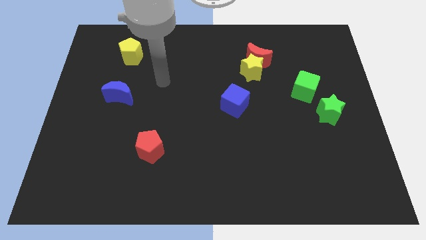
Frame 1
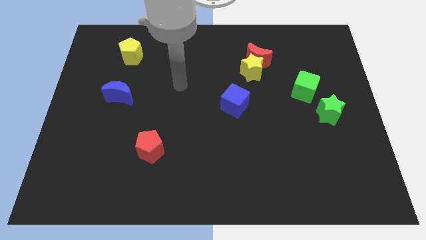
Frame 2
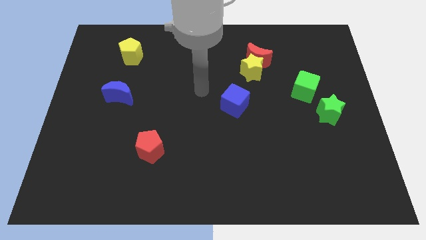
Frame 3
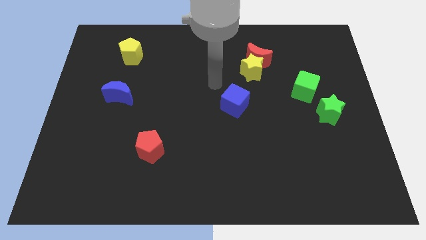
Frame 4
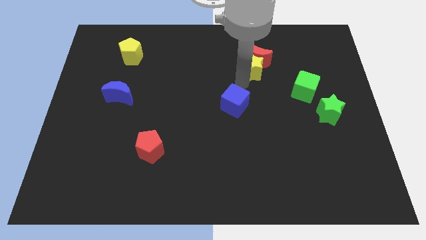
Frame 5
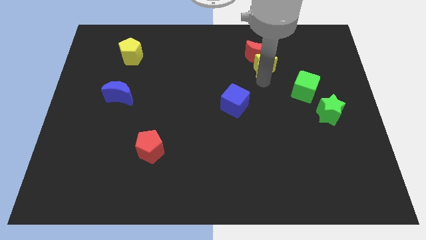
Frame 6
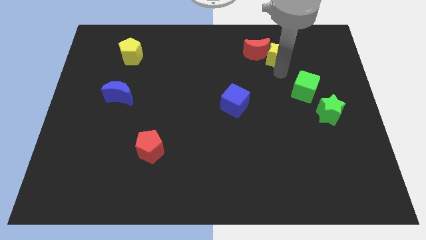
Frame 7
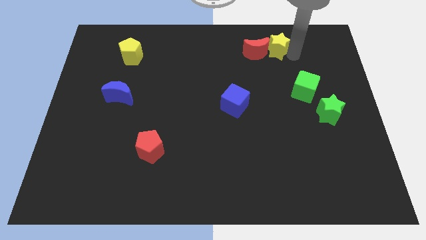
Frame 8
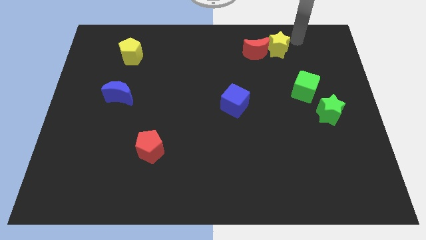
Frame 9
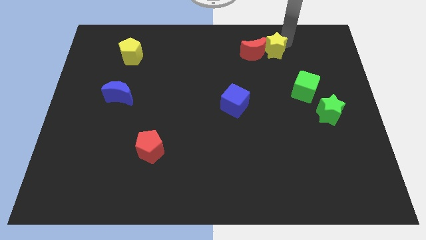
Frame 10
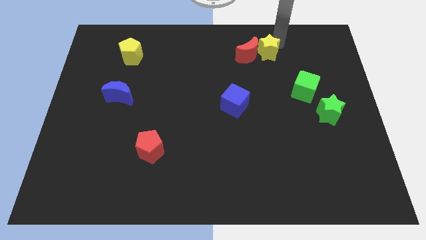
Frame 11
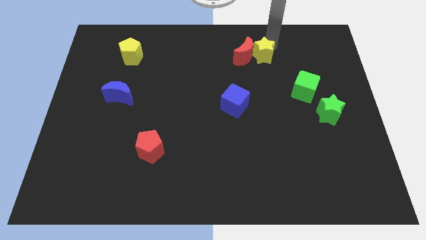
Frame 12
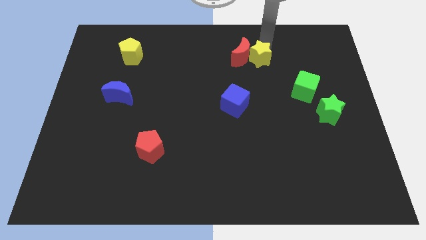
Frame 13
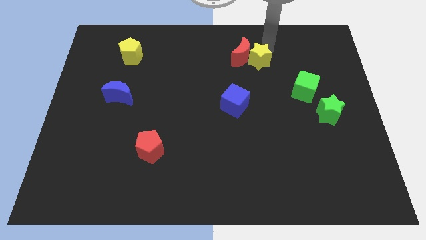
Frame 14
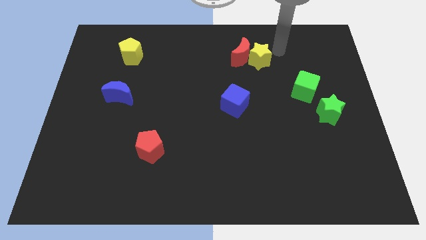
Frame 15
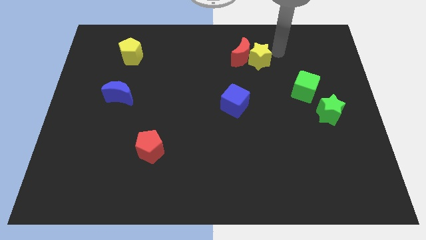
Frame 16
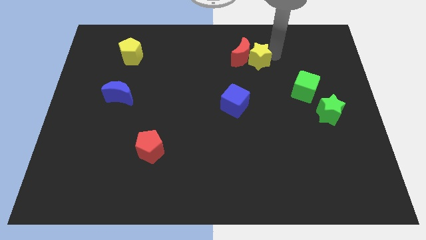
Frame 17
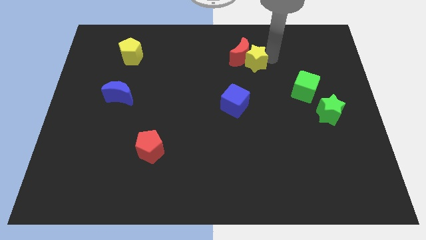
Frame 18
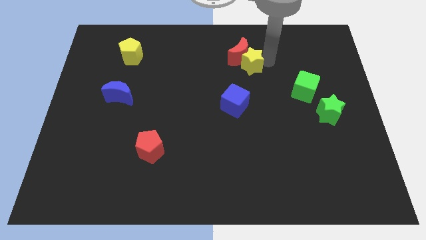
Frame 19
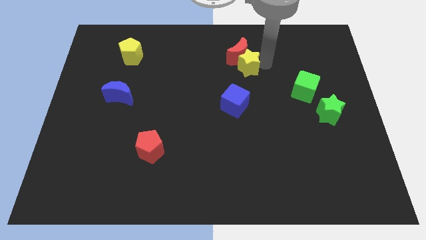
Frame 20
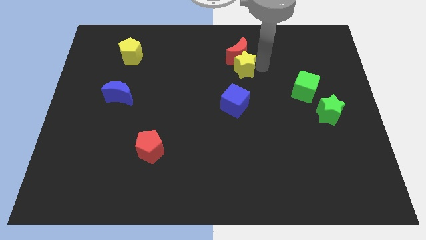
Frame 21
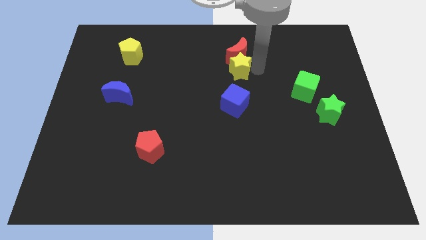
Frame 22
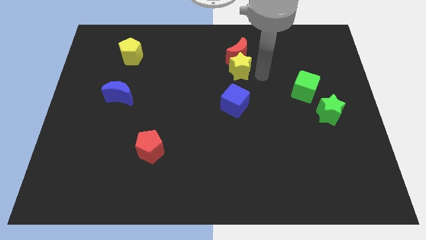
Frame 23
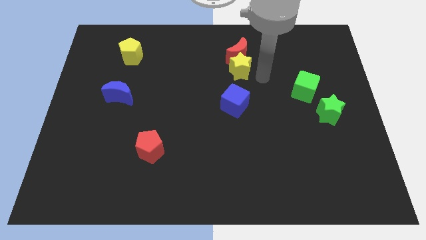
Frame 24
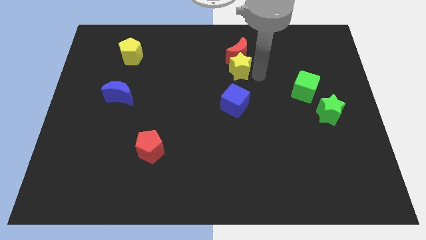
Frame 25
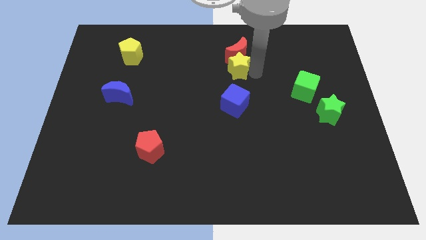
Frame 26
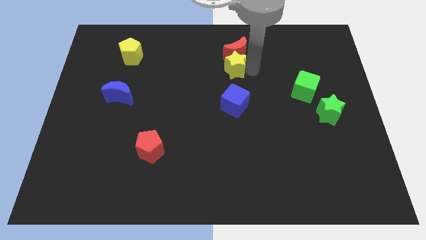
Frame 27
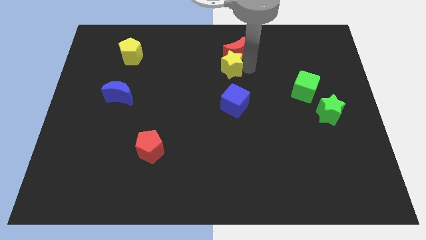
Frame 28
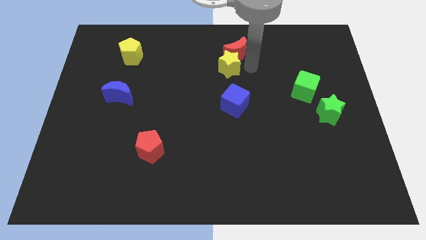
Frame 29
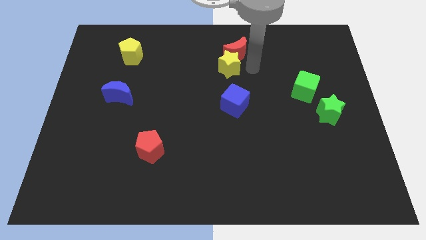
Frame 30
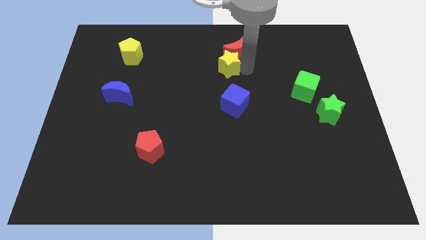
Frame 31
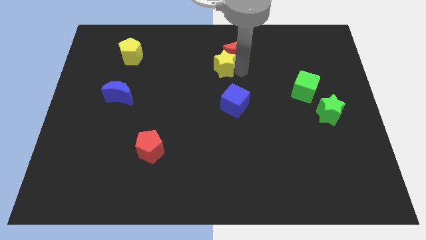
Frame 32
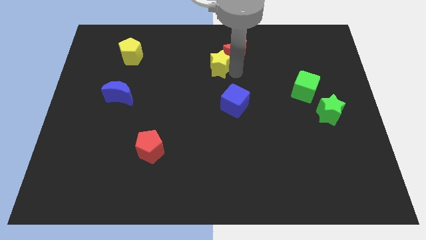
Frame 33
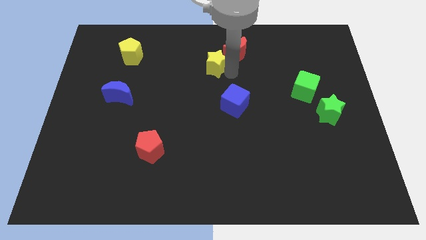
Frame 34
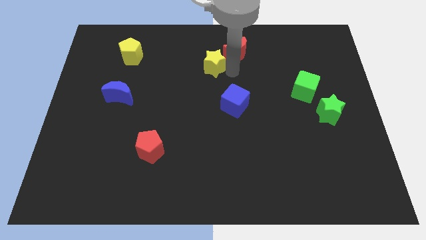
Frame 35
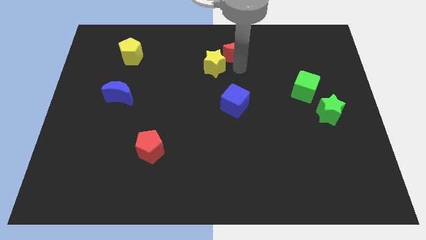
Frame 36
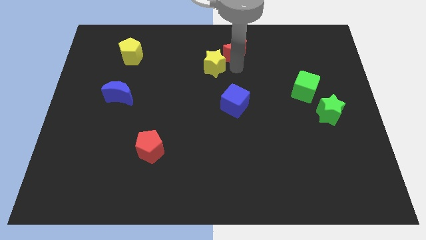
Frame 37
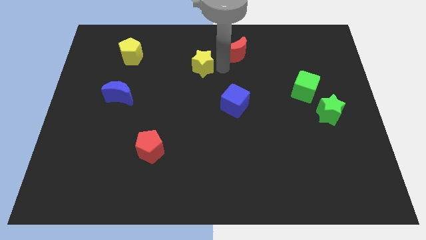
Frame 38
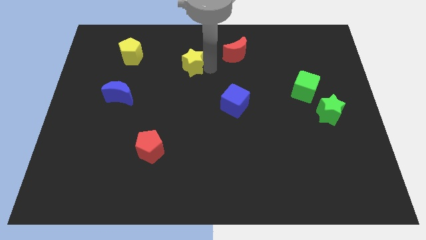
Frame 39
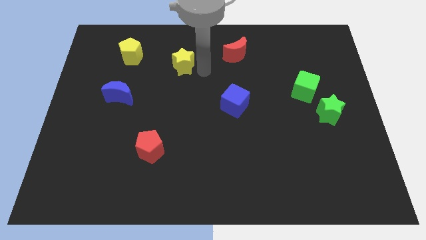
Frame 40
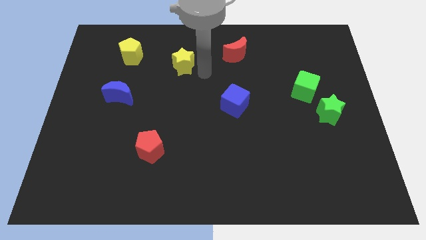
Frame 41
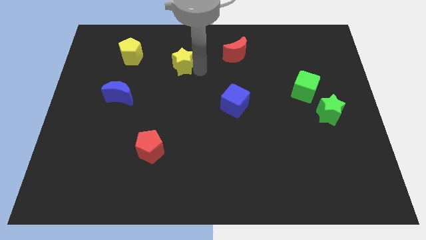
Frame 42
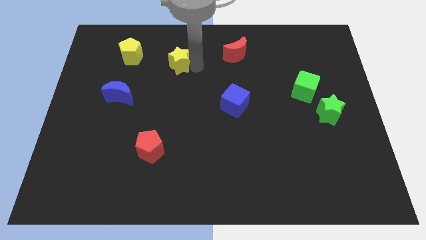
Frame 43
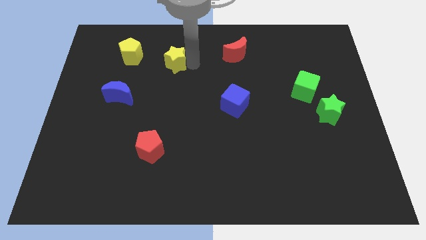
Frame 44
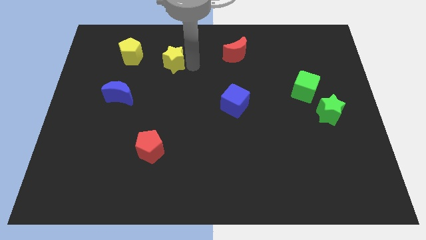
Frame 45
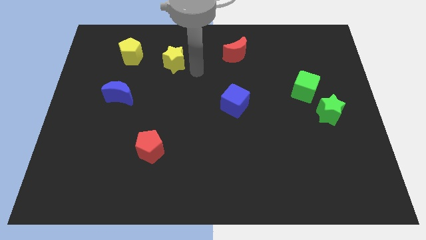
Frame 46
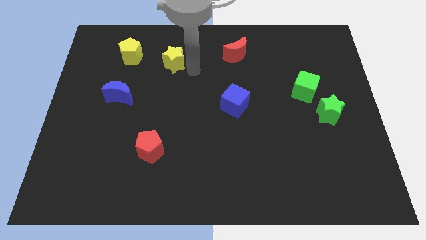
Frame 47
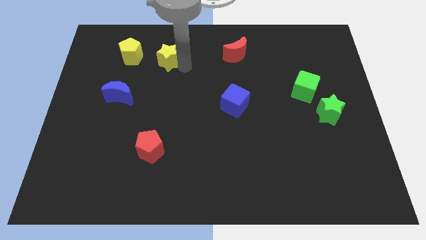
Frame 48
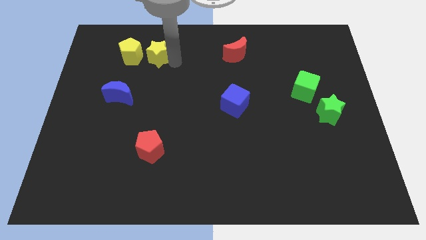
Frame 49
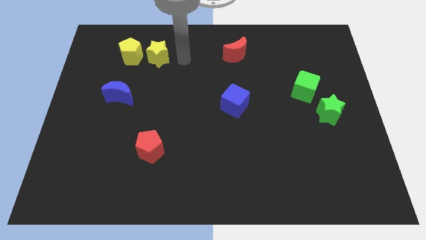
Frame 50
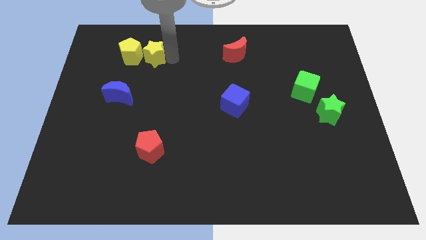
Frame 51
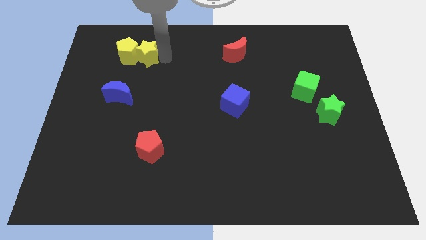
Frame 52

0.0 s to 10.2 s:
move the yellow star towards the yellow pentagon

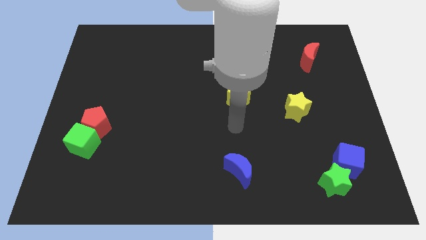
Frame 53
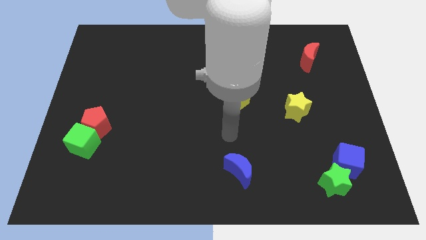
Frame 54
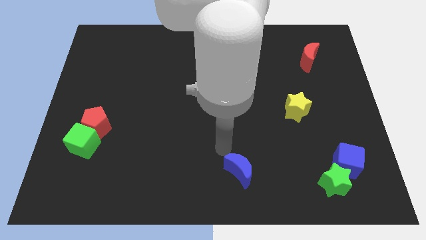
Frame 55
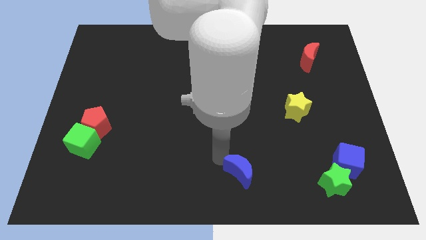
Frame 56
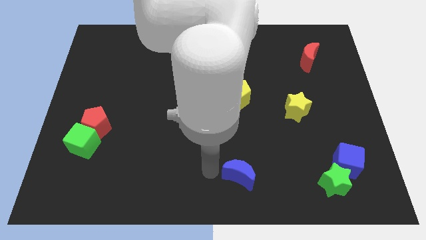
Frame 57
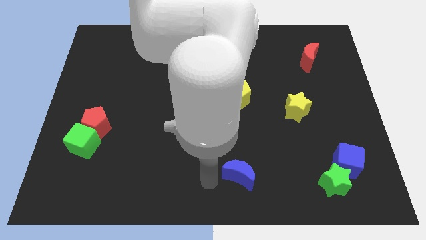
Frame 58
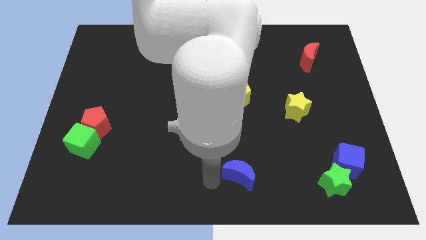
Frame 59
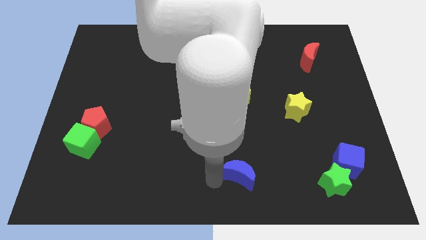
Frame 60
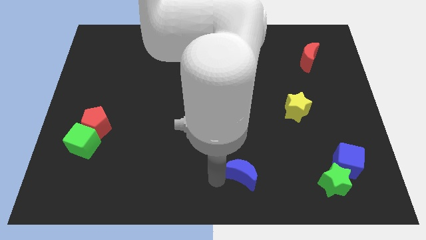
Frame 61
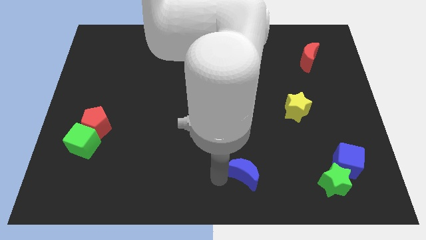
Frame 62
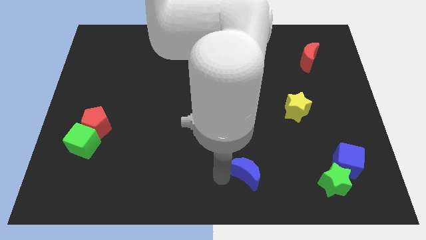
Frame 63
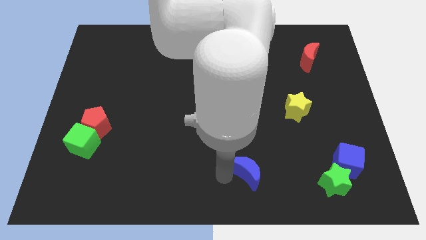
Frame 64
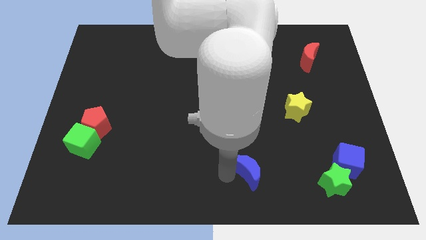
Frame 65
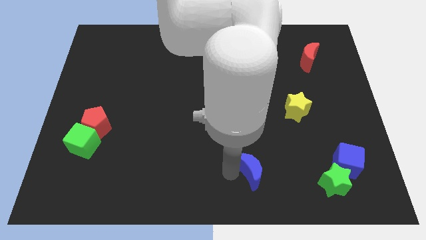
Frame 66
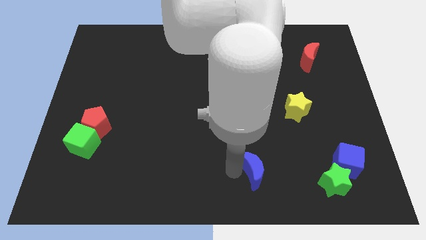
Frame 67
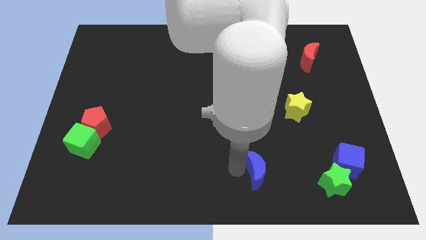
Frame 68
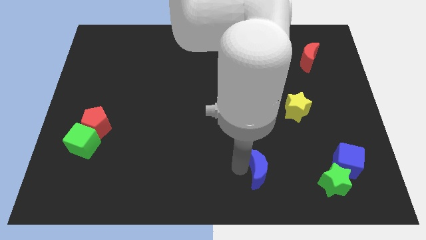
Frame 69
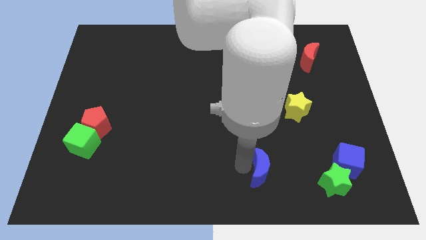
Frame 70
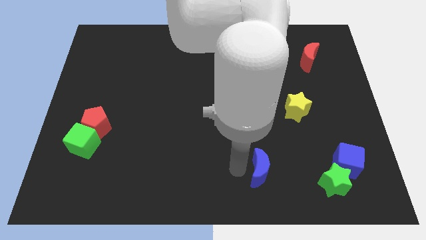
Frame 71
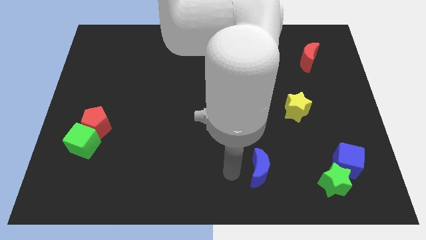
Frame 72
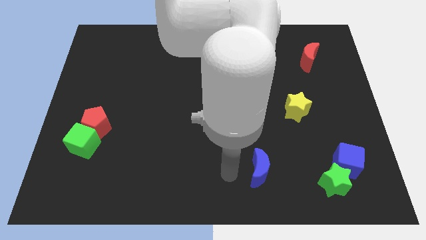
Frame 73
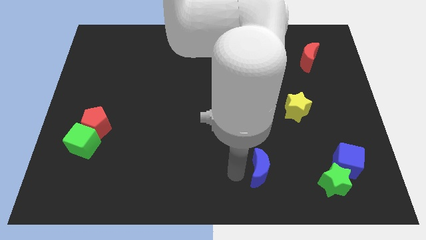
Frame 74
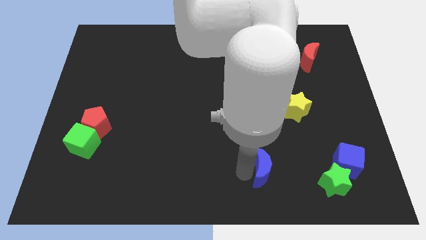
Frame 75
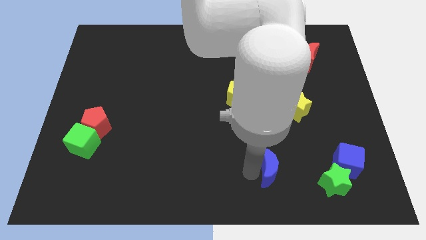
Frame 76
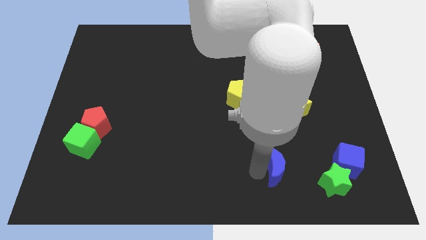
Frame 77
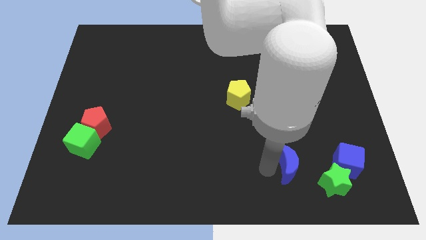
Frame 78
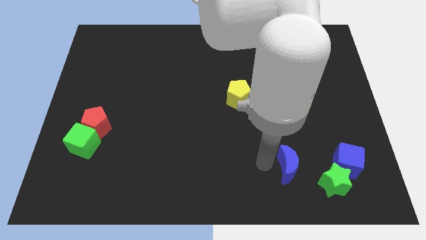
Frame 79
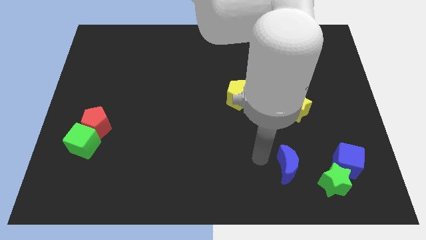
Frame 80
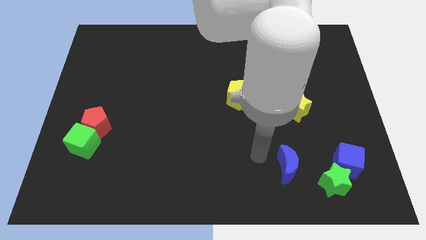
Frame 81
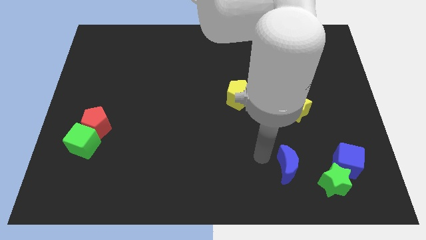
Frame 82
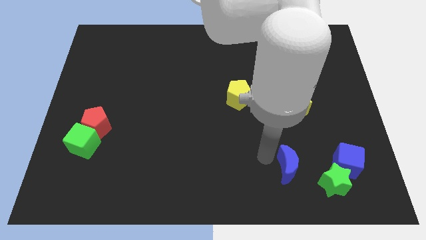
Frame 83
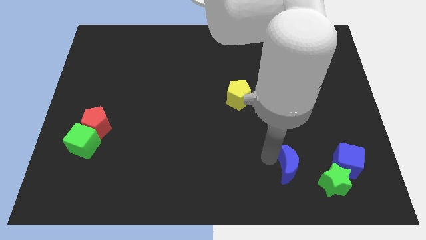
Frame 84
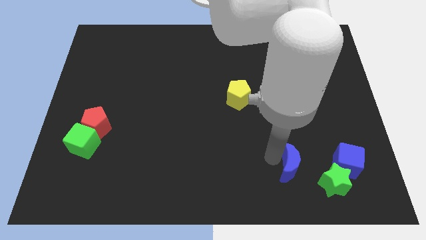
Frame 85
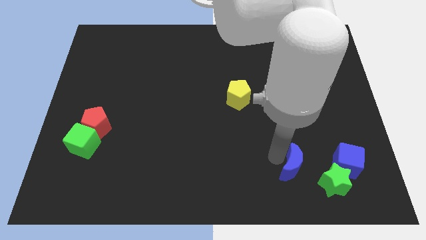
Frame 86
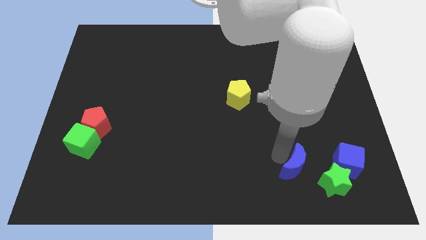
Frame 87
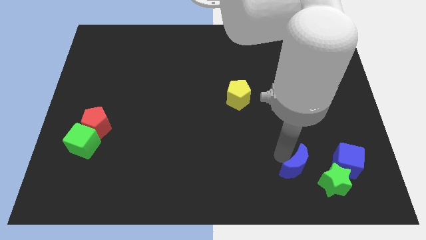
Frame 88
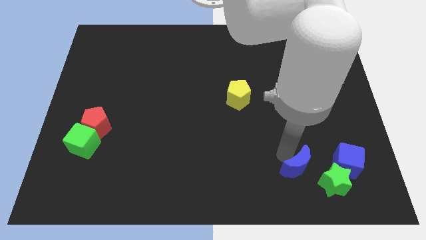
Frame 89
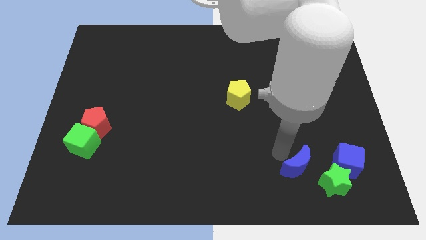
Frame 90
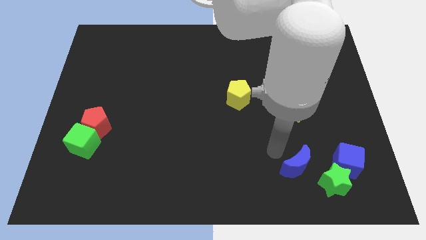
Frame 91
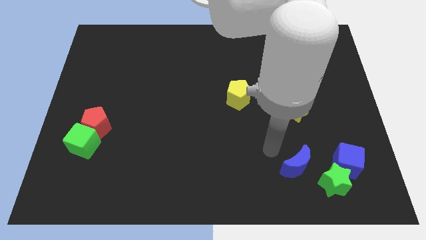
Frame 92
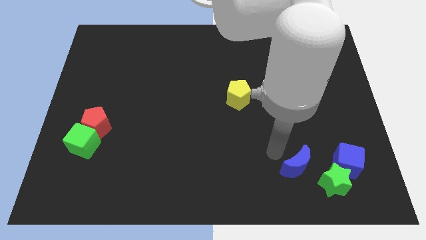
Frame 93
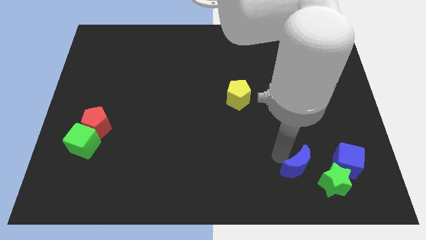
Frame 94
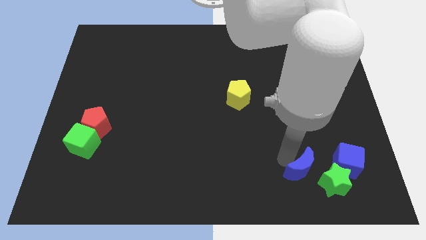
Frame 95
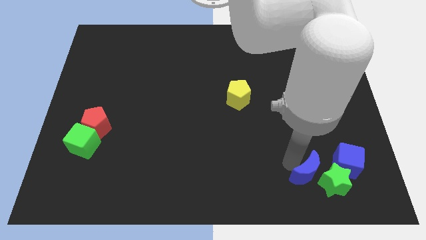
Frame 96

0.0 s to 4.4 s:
move the blue moon close to the green star
